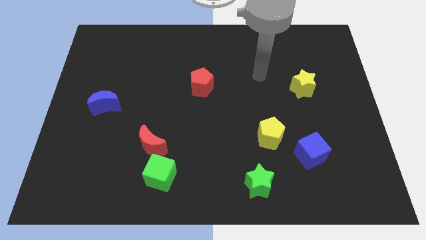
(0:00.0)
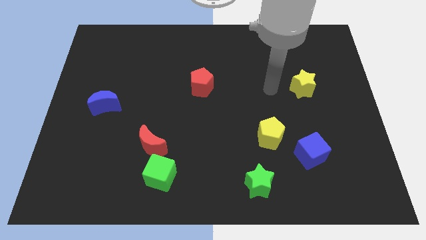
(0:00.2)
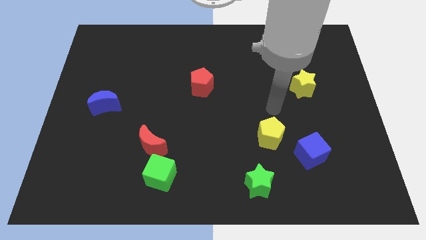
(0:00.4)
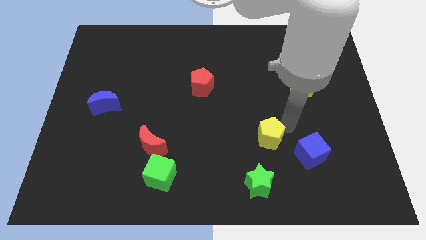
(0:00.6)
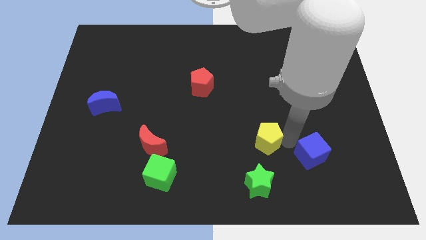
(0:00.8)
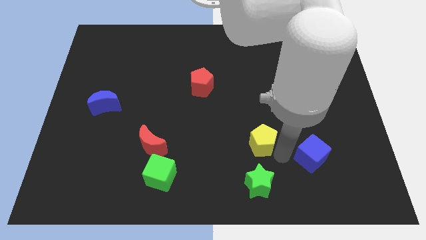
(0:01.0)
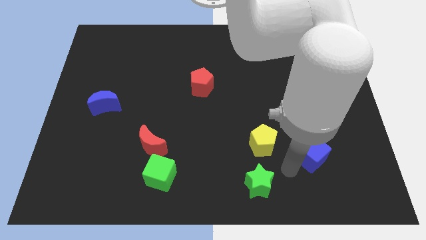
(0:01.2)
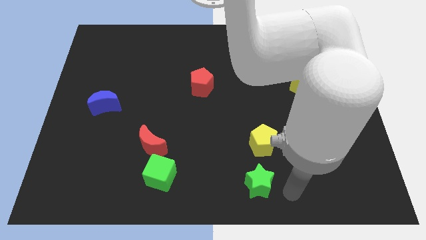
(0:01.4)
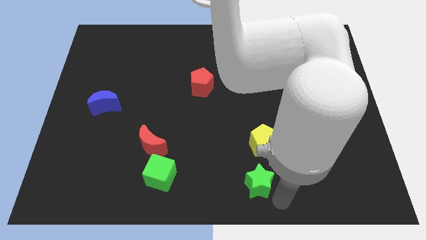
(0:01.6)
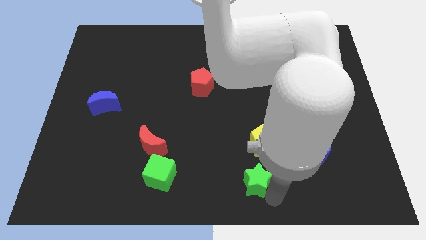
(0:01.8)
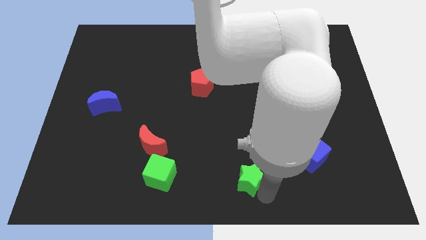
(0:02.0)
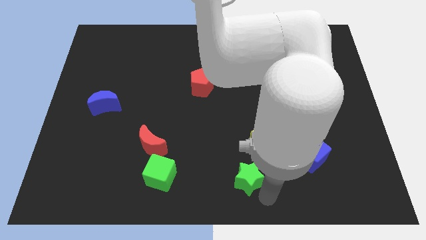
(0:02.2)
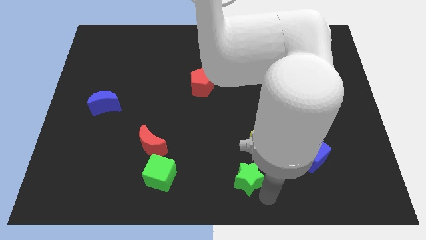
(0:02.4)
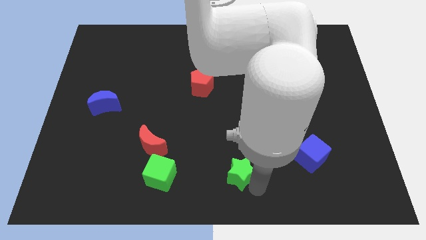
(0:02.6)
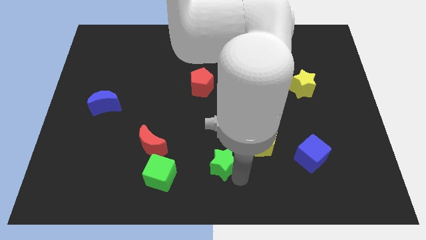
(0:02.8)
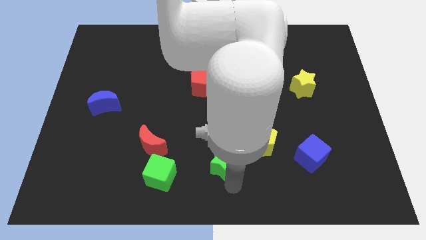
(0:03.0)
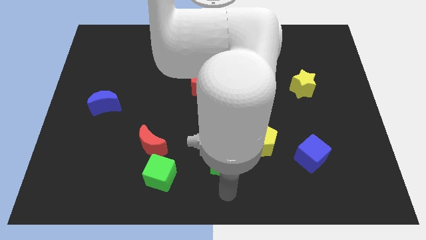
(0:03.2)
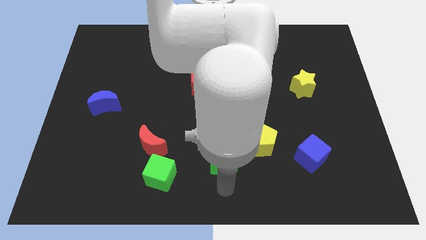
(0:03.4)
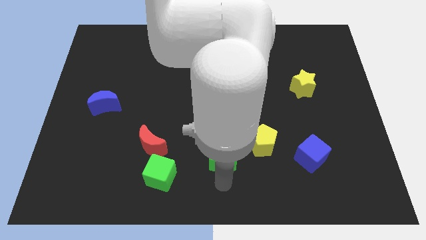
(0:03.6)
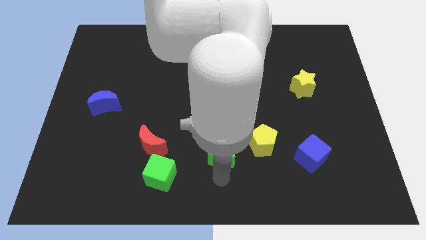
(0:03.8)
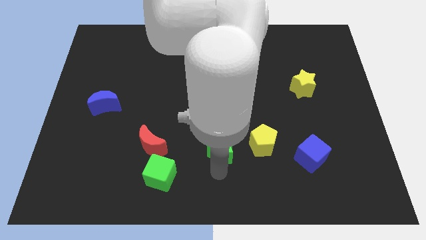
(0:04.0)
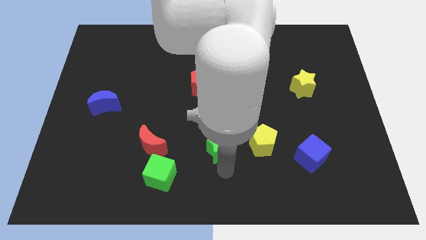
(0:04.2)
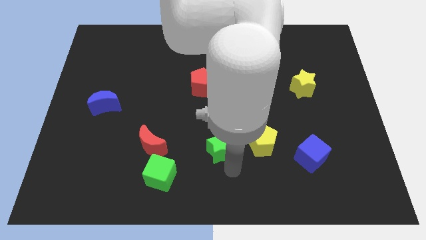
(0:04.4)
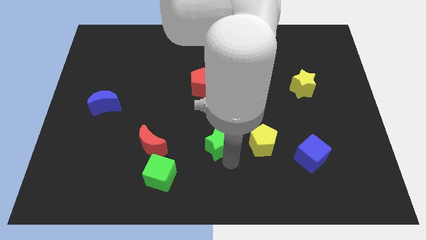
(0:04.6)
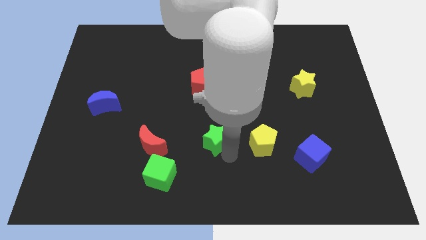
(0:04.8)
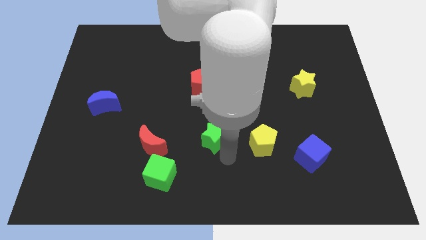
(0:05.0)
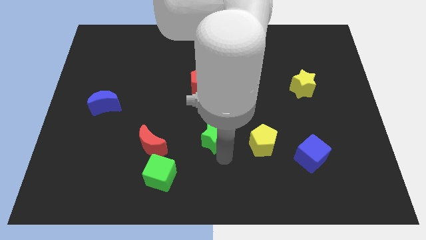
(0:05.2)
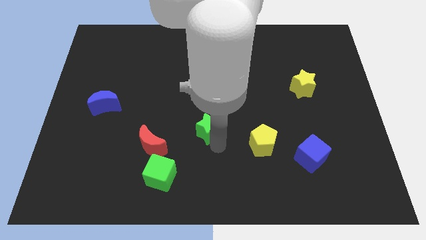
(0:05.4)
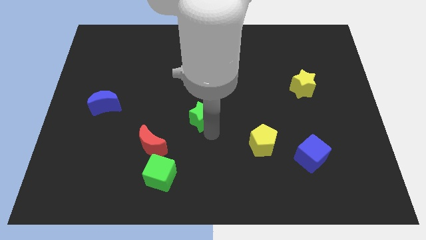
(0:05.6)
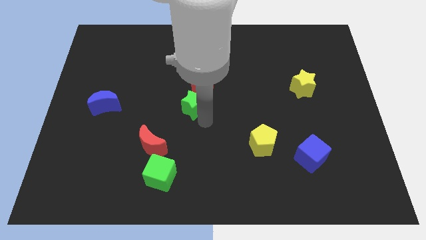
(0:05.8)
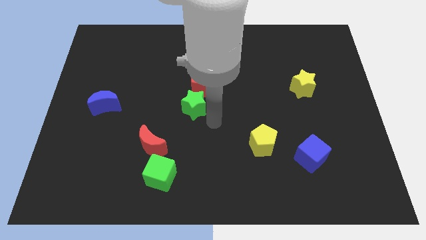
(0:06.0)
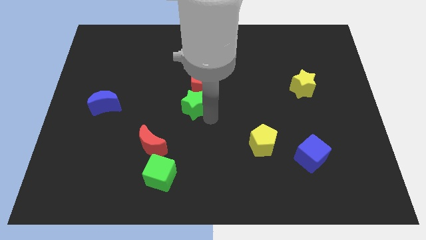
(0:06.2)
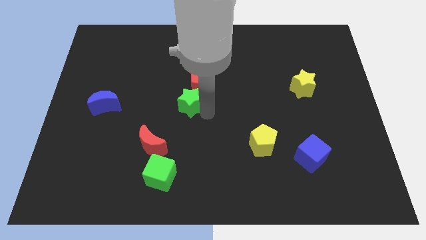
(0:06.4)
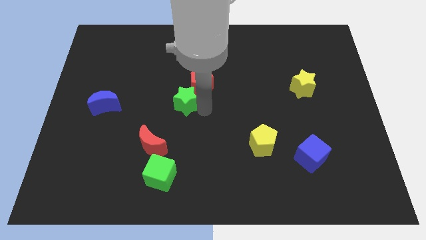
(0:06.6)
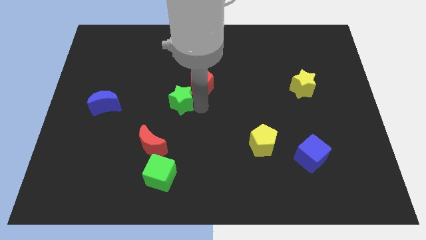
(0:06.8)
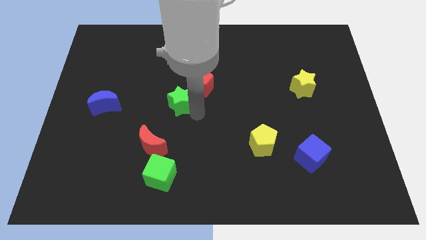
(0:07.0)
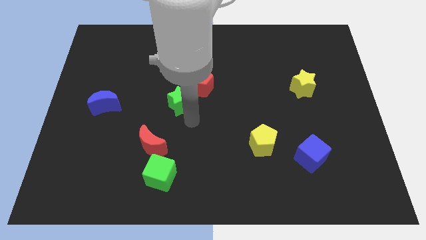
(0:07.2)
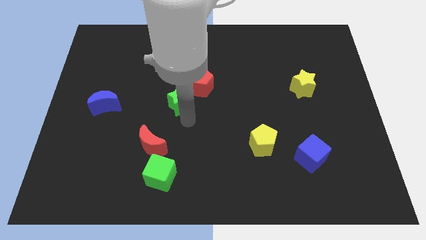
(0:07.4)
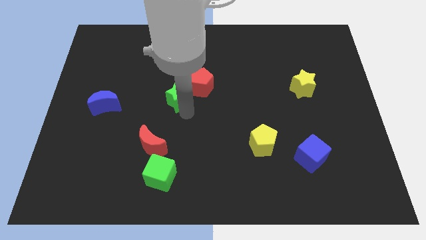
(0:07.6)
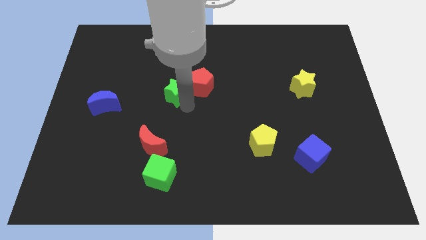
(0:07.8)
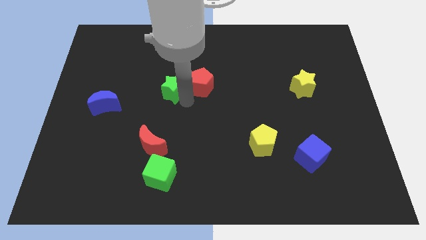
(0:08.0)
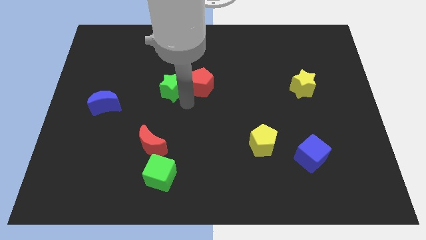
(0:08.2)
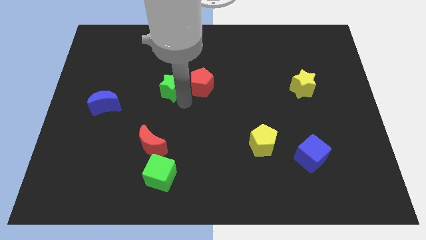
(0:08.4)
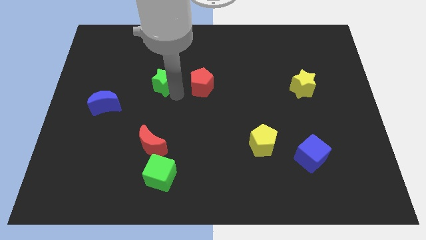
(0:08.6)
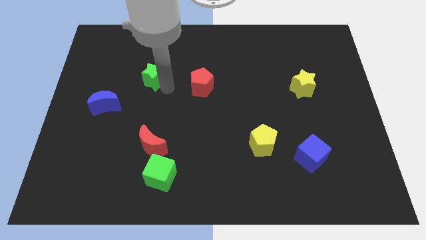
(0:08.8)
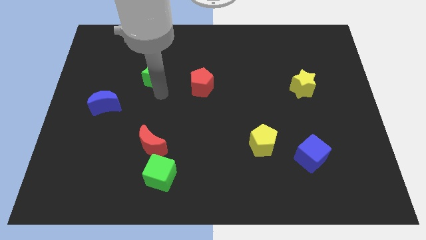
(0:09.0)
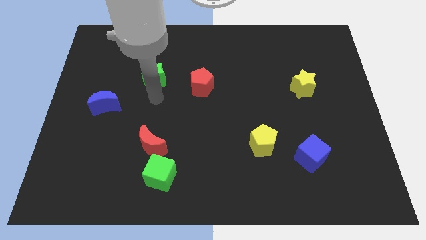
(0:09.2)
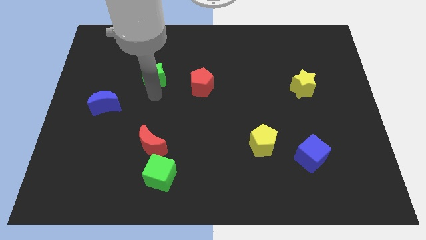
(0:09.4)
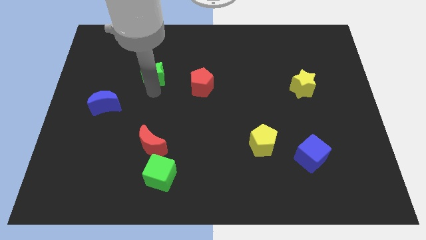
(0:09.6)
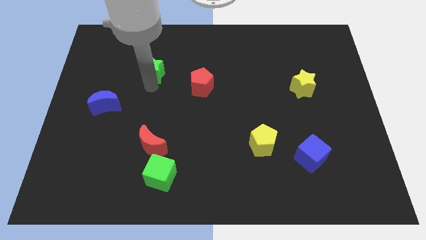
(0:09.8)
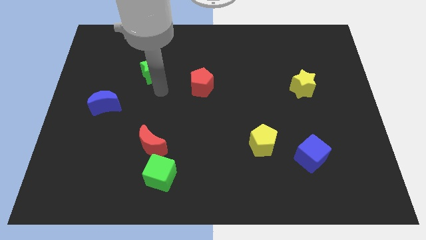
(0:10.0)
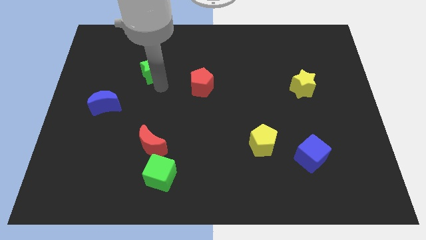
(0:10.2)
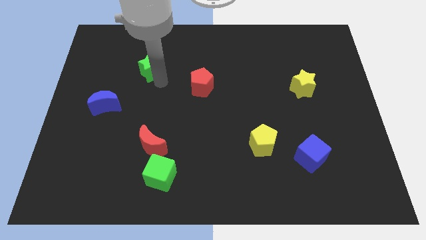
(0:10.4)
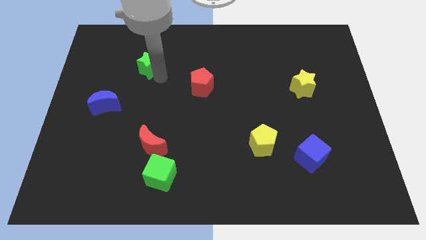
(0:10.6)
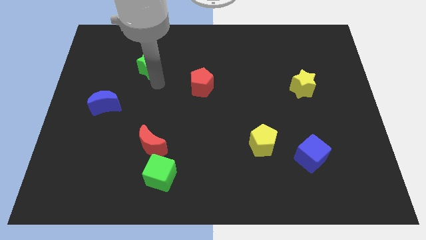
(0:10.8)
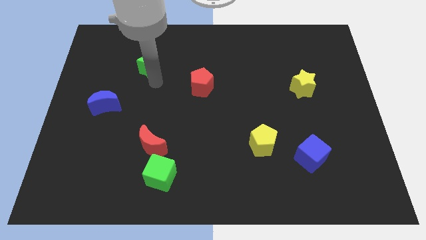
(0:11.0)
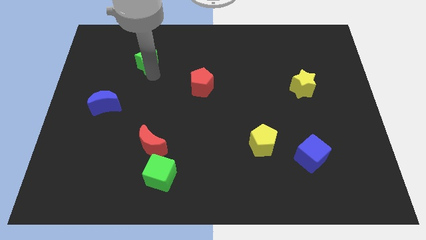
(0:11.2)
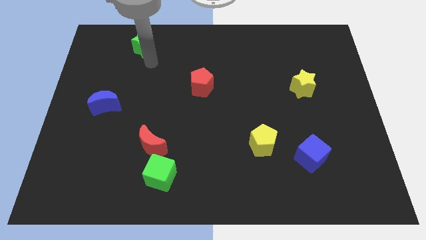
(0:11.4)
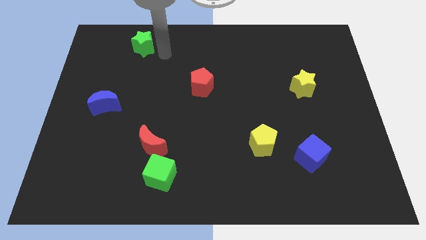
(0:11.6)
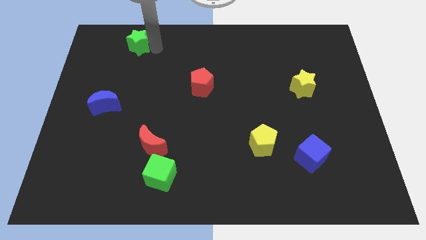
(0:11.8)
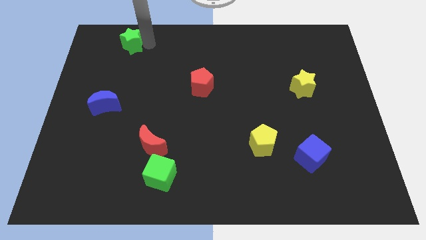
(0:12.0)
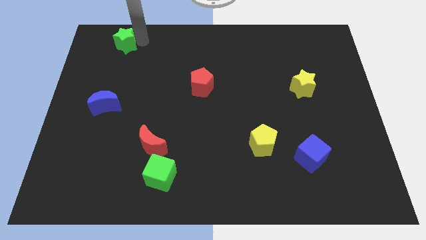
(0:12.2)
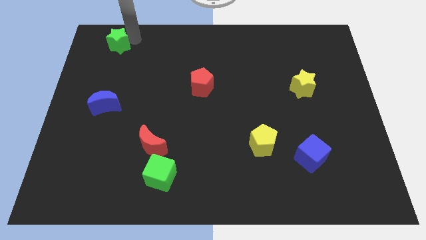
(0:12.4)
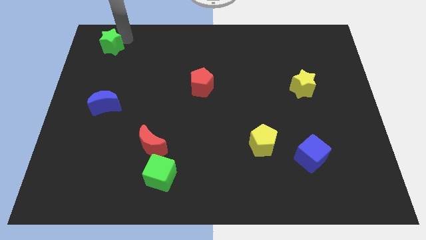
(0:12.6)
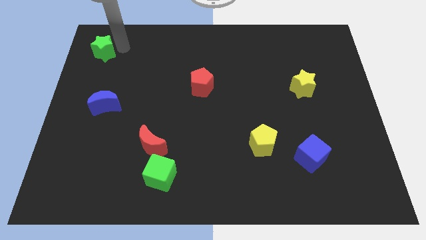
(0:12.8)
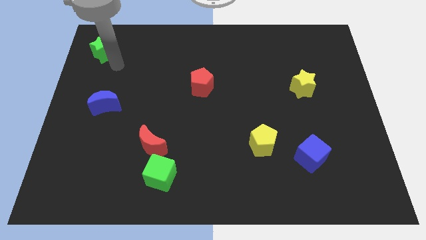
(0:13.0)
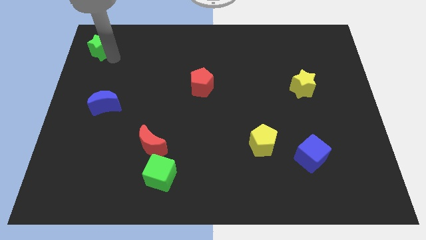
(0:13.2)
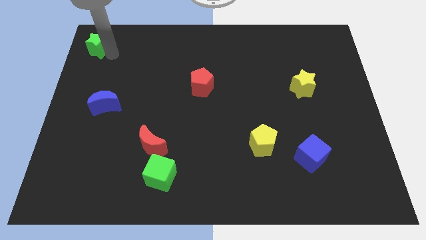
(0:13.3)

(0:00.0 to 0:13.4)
slide the green star to the top left of the board

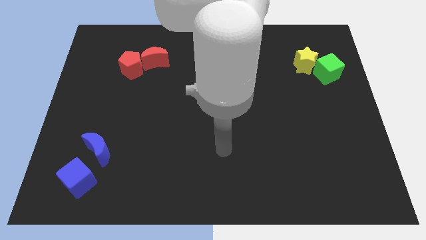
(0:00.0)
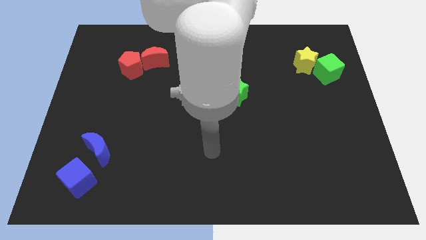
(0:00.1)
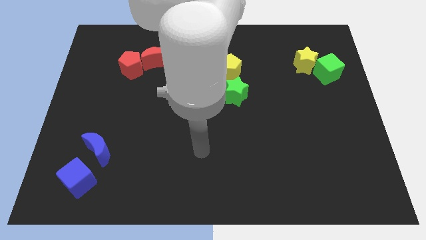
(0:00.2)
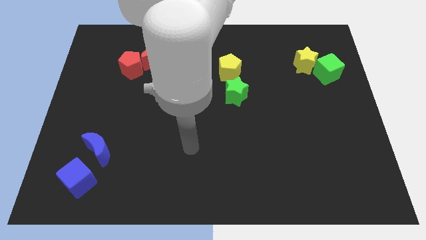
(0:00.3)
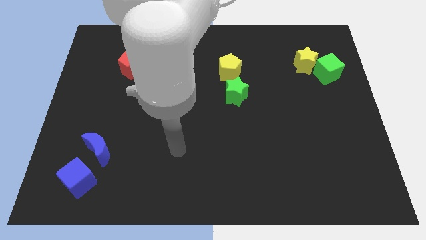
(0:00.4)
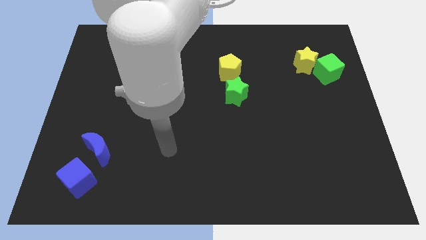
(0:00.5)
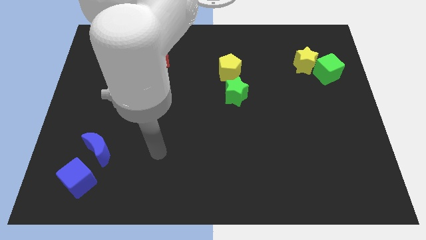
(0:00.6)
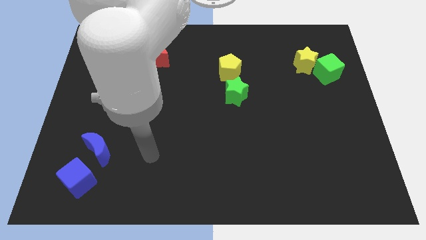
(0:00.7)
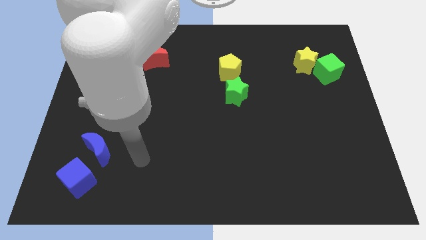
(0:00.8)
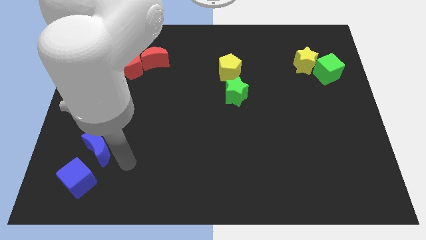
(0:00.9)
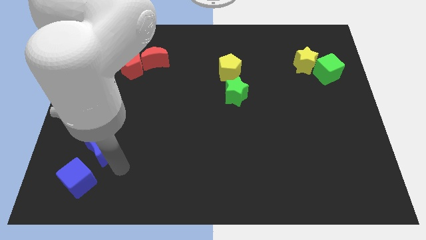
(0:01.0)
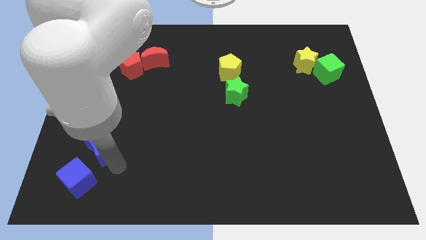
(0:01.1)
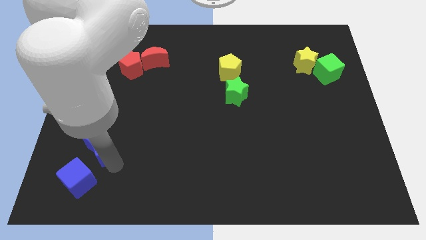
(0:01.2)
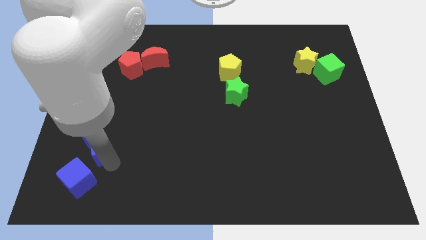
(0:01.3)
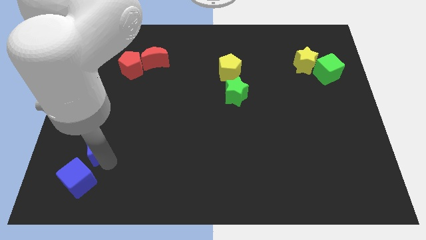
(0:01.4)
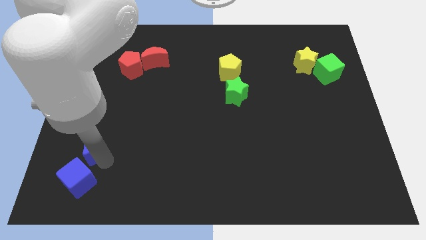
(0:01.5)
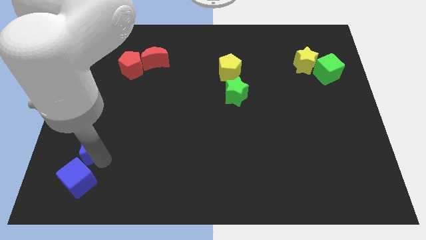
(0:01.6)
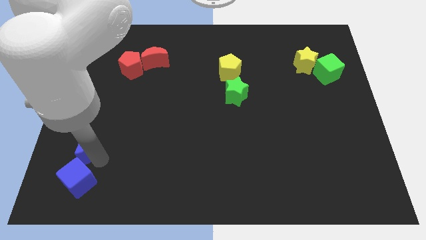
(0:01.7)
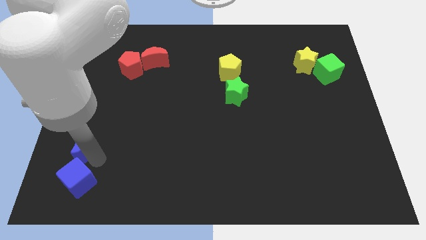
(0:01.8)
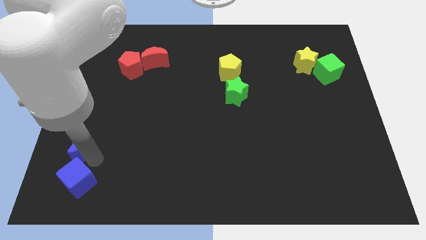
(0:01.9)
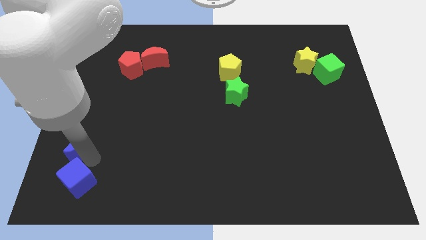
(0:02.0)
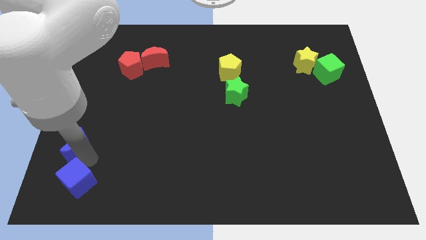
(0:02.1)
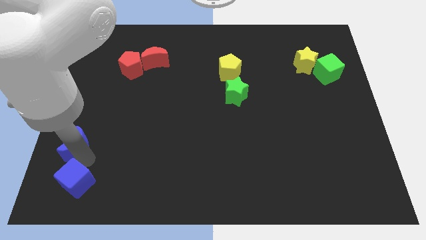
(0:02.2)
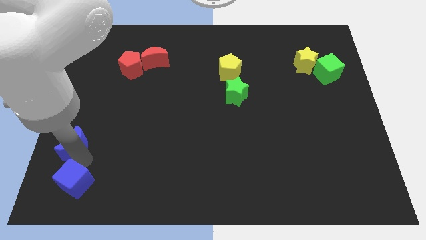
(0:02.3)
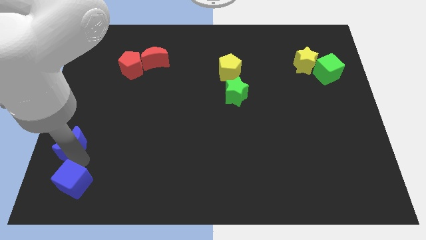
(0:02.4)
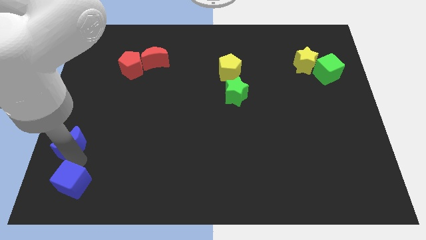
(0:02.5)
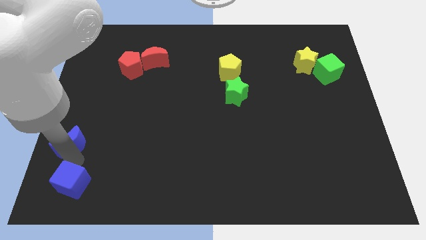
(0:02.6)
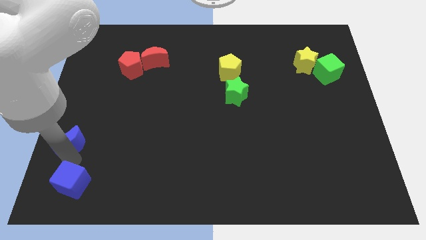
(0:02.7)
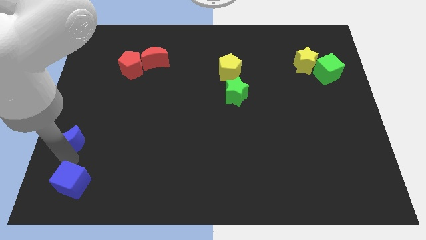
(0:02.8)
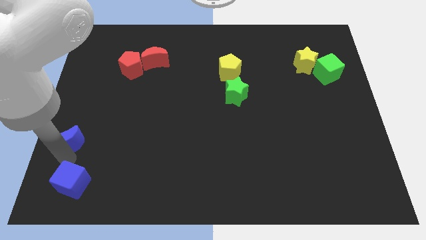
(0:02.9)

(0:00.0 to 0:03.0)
put the blue moon to the center left
